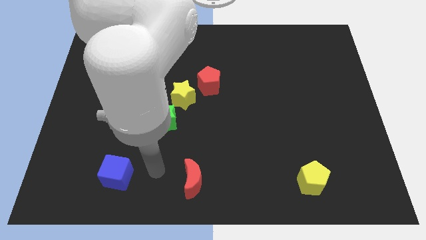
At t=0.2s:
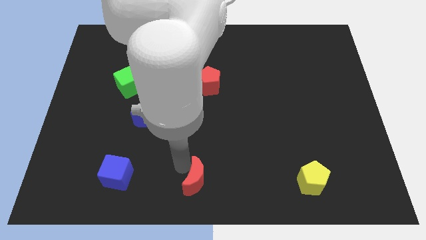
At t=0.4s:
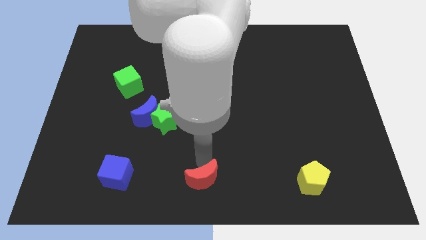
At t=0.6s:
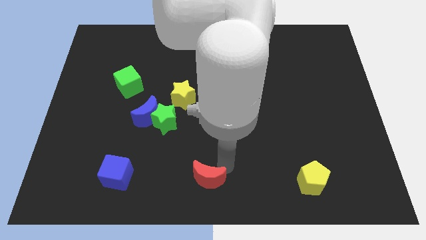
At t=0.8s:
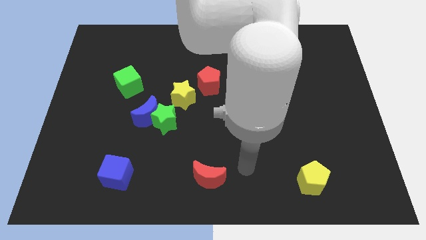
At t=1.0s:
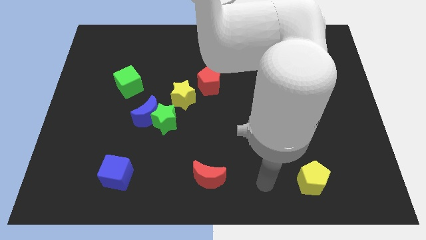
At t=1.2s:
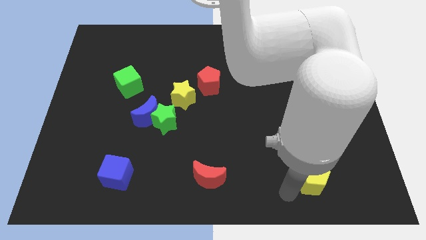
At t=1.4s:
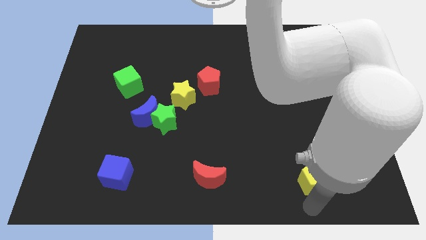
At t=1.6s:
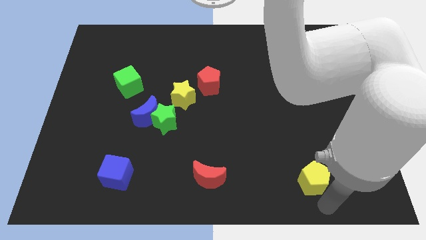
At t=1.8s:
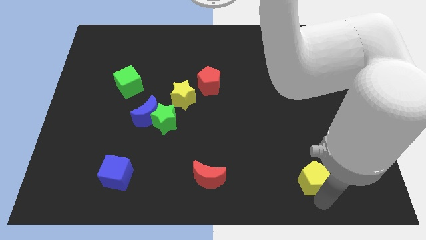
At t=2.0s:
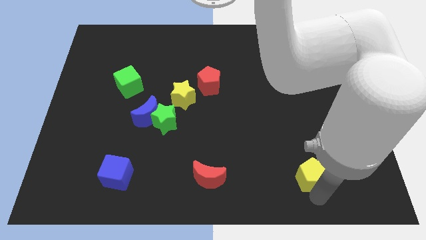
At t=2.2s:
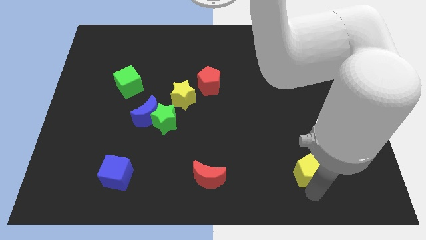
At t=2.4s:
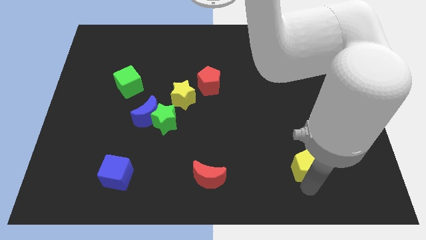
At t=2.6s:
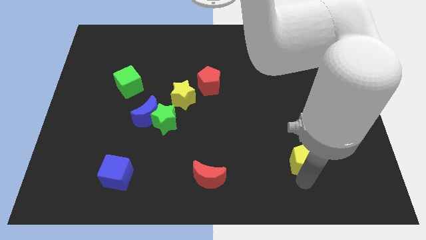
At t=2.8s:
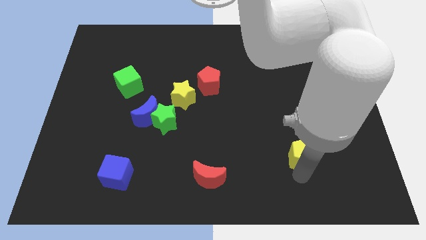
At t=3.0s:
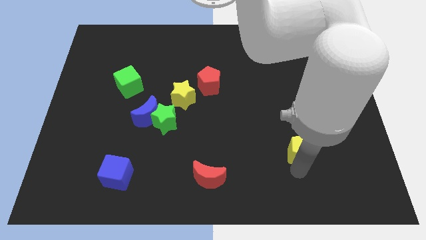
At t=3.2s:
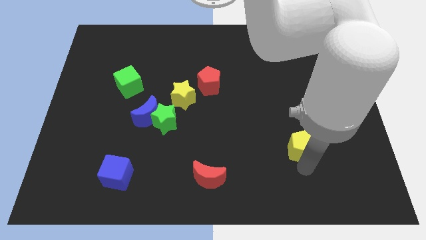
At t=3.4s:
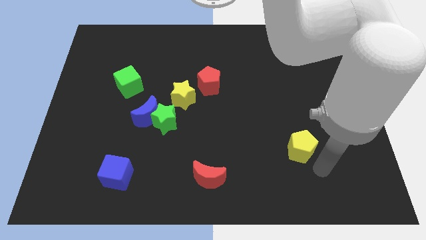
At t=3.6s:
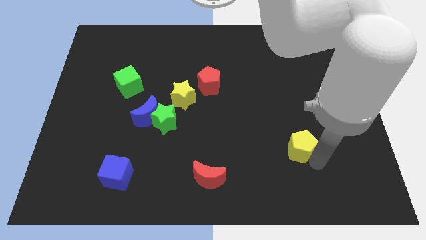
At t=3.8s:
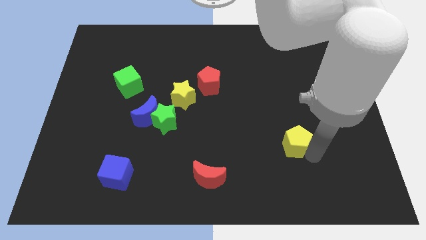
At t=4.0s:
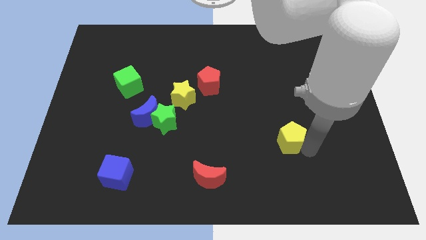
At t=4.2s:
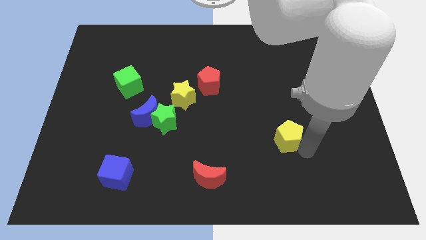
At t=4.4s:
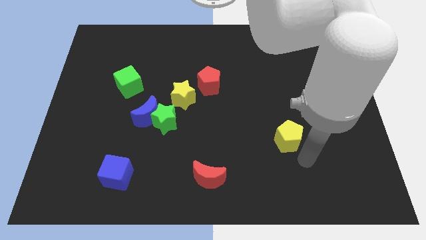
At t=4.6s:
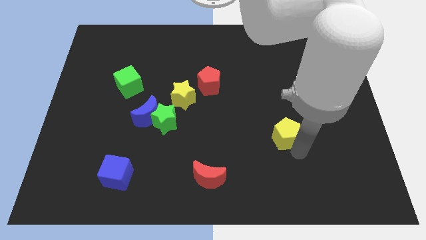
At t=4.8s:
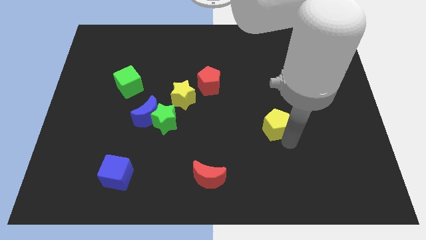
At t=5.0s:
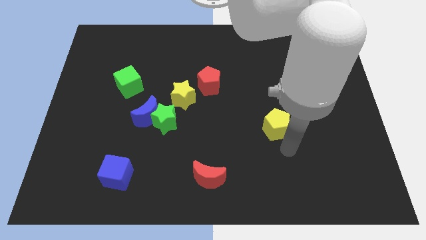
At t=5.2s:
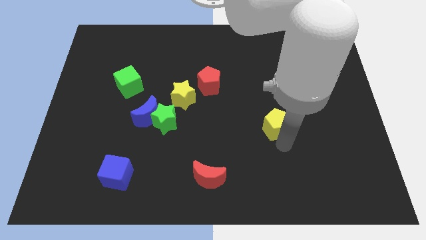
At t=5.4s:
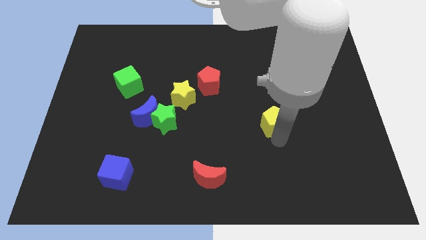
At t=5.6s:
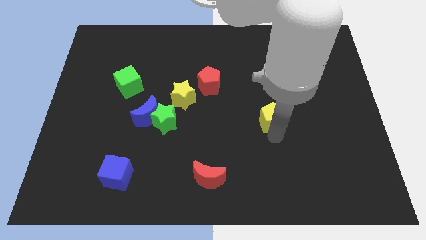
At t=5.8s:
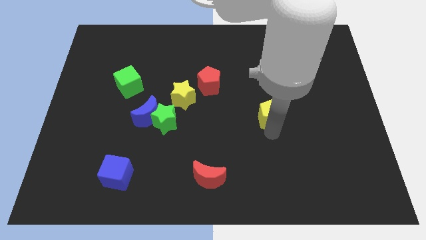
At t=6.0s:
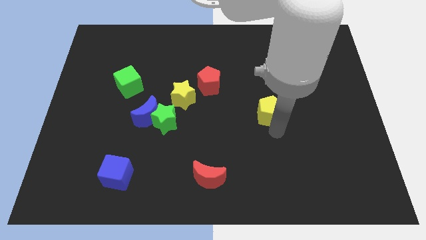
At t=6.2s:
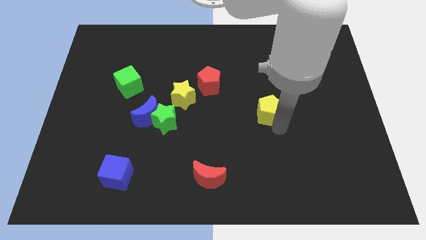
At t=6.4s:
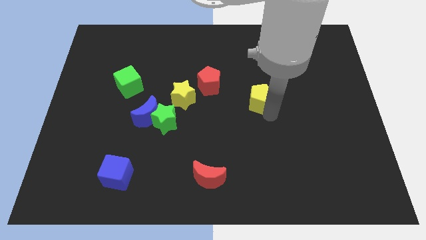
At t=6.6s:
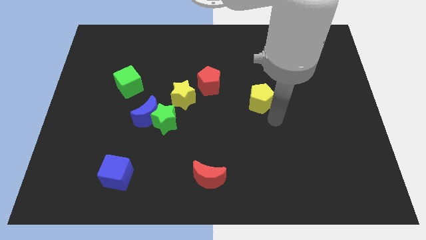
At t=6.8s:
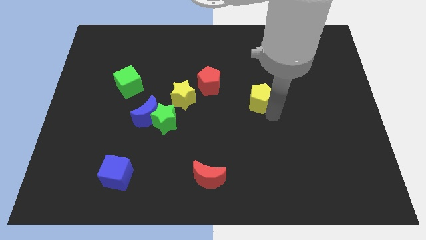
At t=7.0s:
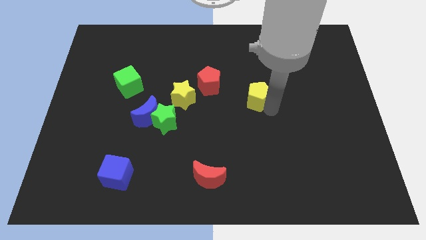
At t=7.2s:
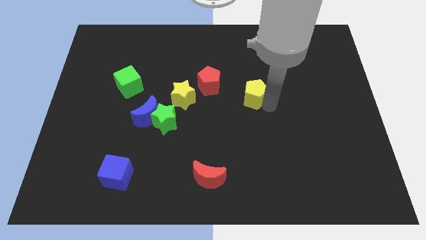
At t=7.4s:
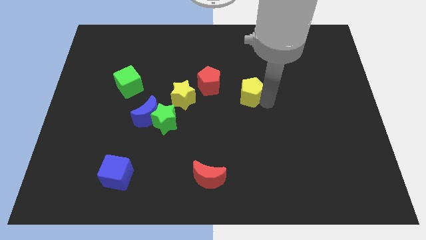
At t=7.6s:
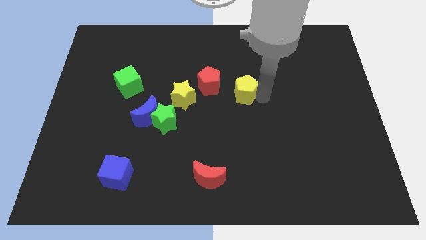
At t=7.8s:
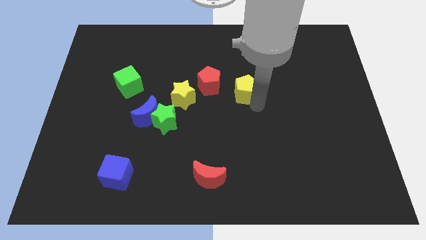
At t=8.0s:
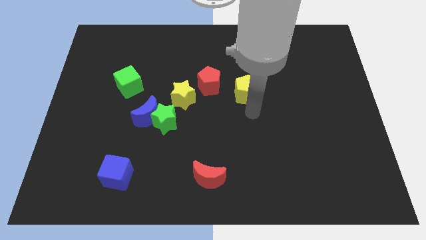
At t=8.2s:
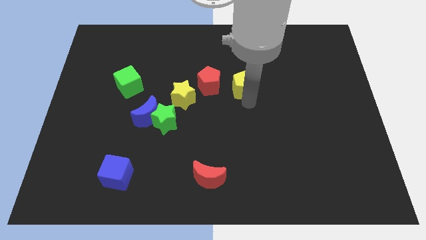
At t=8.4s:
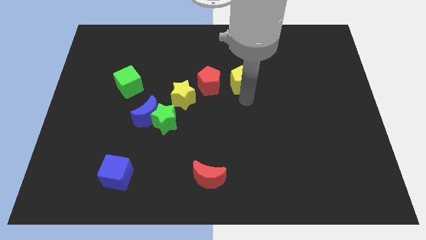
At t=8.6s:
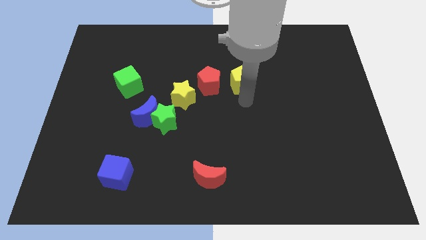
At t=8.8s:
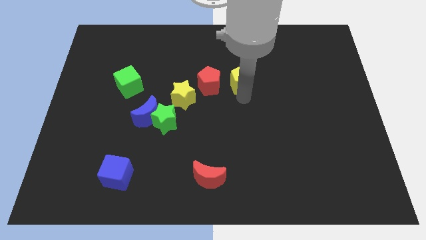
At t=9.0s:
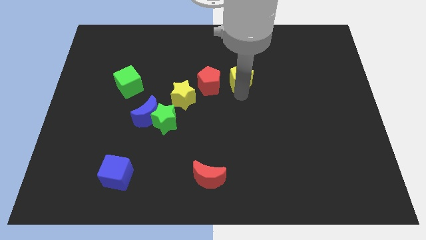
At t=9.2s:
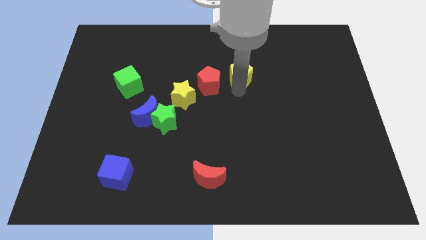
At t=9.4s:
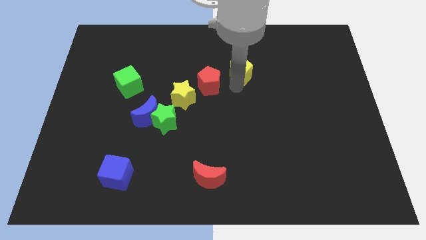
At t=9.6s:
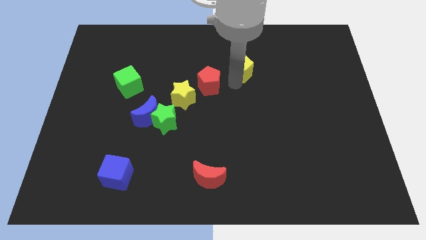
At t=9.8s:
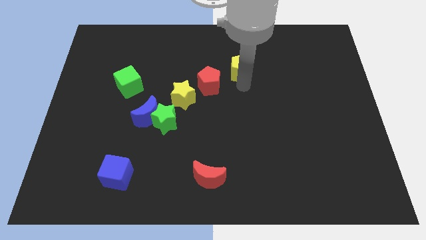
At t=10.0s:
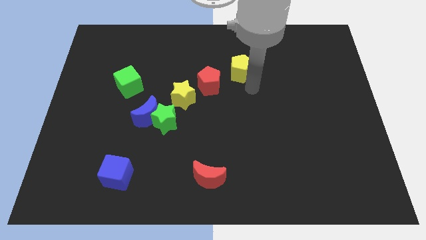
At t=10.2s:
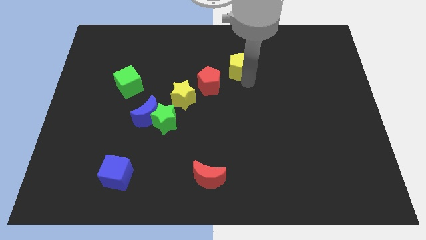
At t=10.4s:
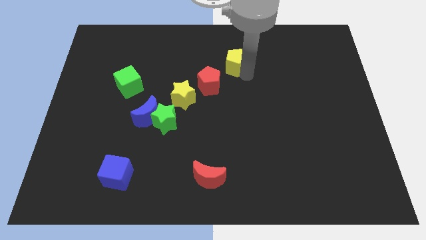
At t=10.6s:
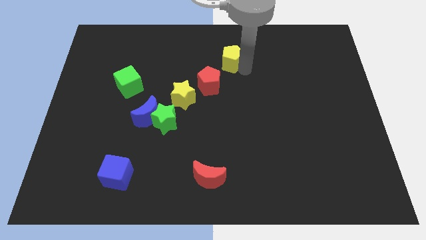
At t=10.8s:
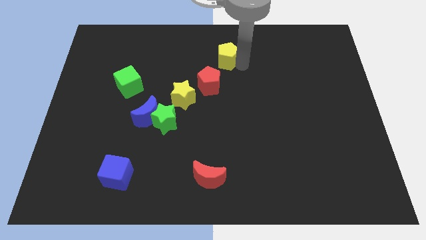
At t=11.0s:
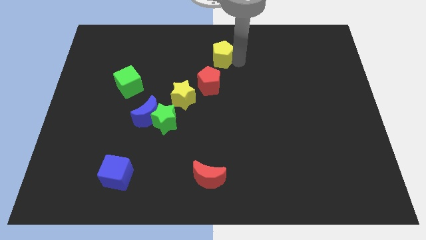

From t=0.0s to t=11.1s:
slide the yellow pentagon to the towards your base

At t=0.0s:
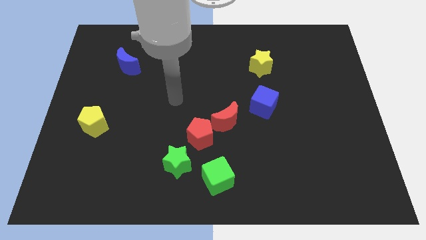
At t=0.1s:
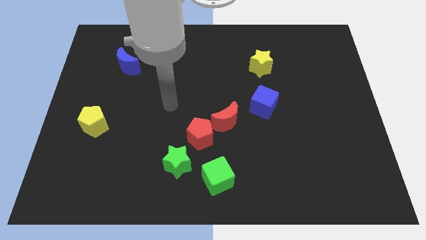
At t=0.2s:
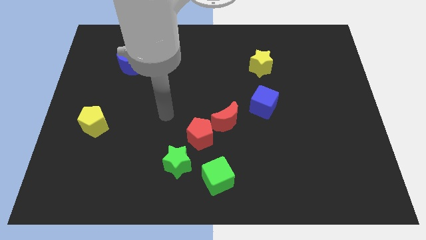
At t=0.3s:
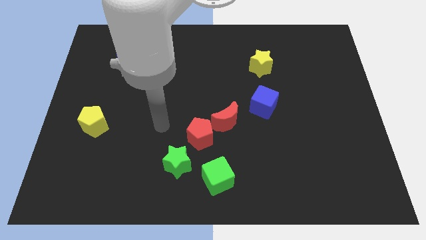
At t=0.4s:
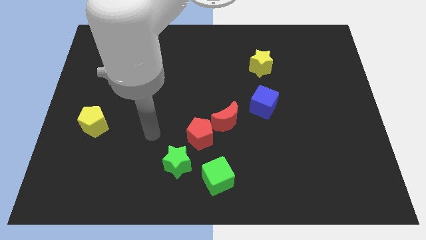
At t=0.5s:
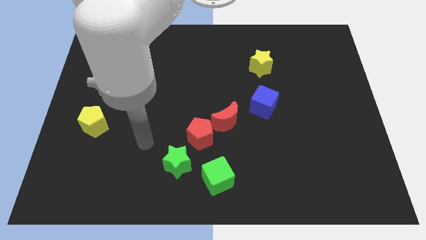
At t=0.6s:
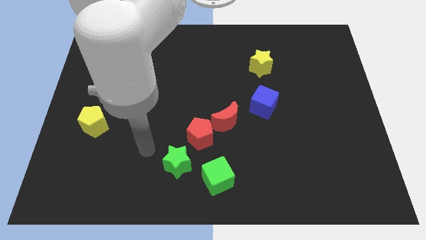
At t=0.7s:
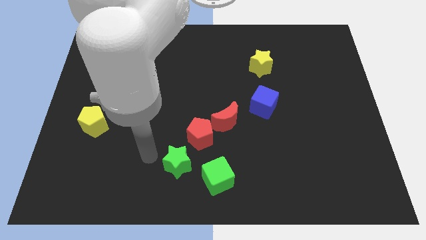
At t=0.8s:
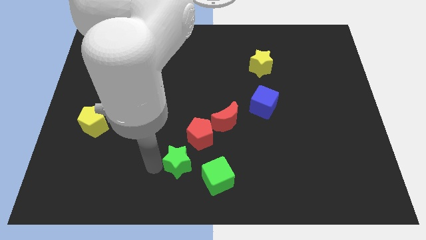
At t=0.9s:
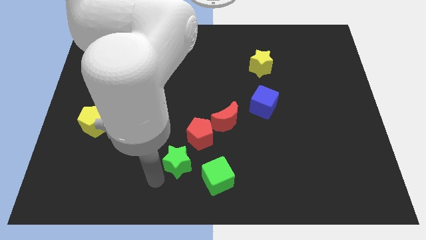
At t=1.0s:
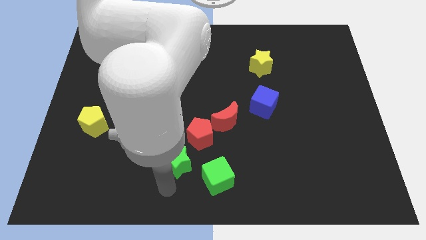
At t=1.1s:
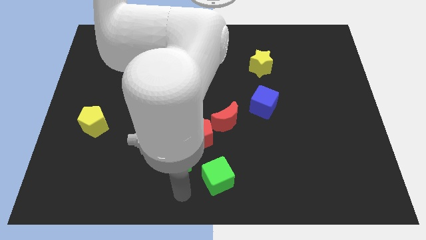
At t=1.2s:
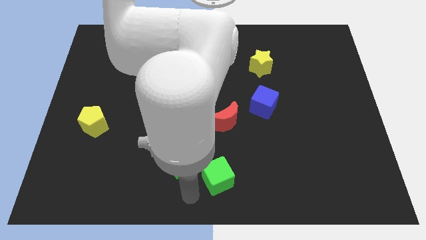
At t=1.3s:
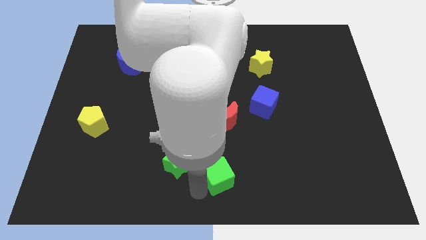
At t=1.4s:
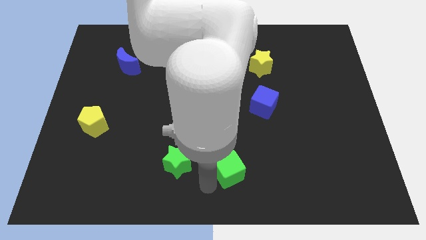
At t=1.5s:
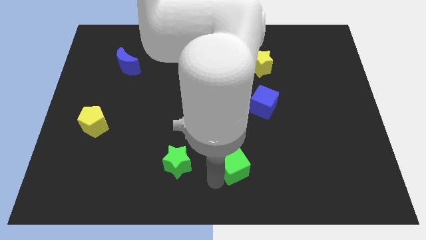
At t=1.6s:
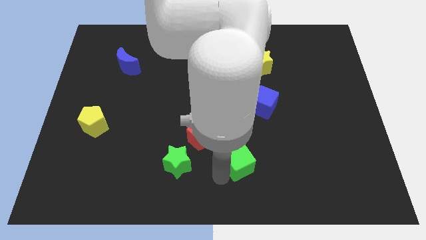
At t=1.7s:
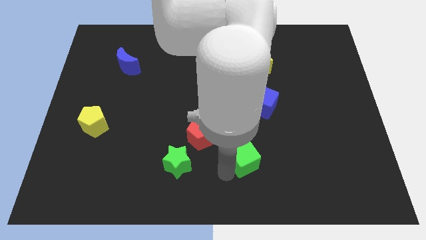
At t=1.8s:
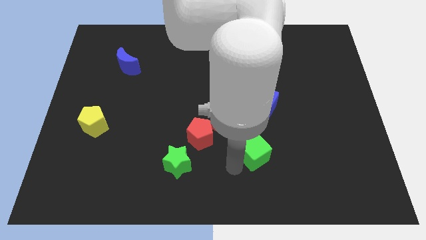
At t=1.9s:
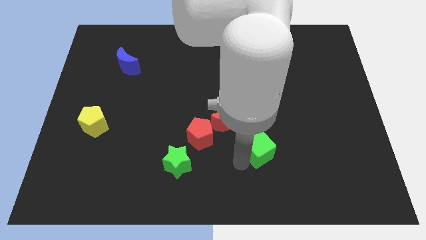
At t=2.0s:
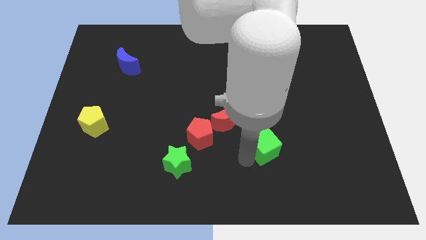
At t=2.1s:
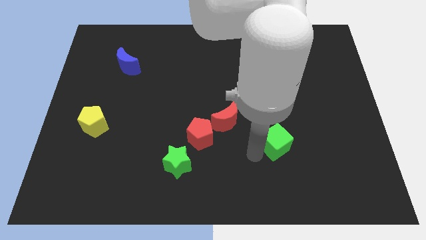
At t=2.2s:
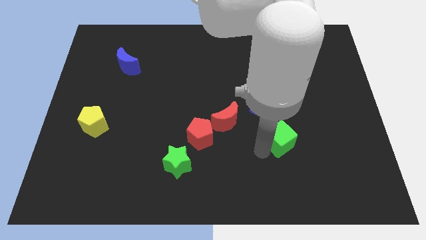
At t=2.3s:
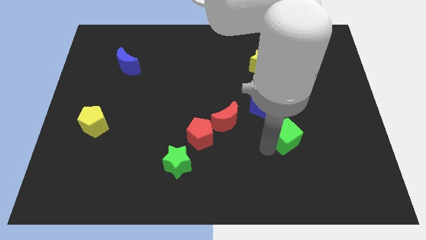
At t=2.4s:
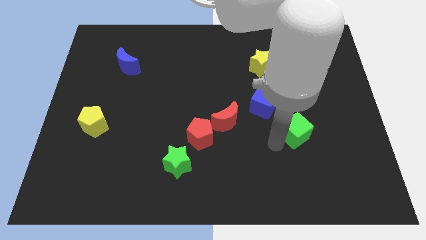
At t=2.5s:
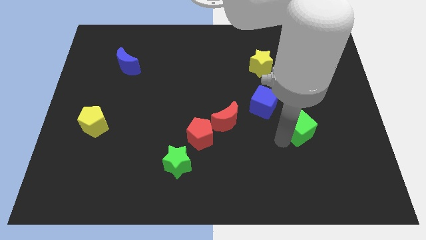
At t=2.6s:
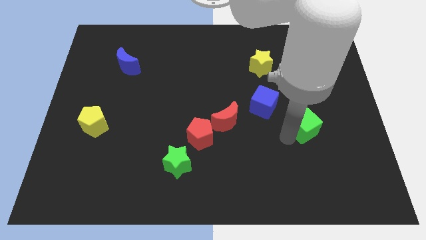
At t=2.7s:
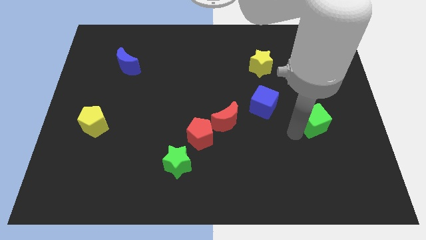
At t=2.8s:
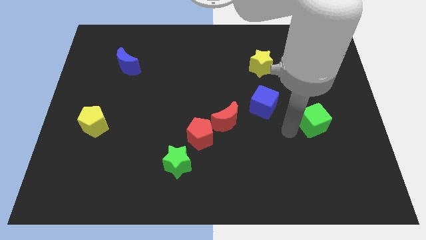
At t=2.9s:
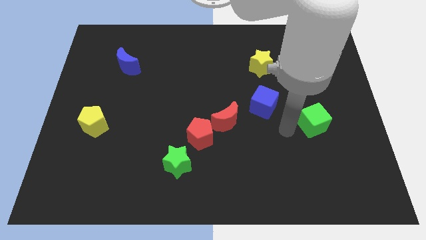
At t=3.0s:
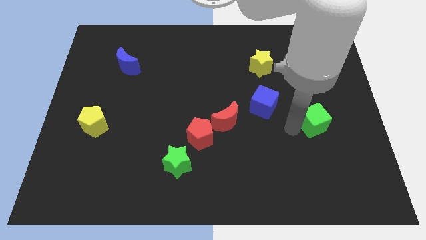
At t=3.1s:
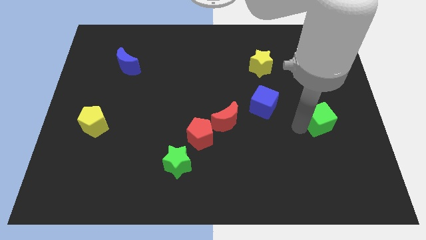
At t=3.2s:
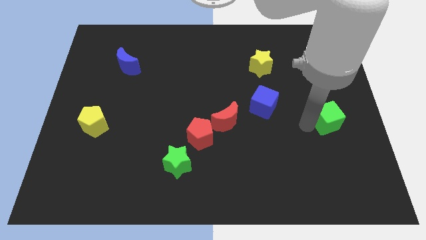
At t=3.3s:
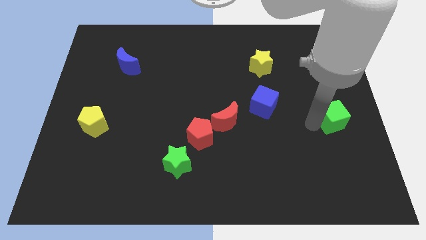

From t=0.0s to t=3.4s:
push the green cube to the right side of the board
